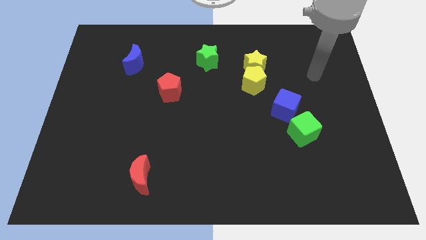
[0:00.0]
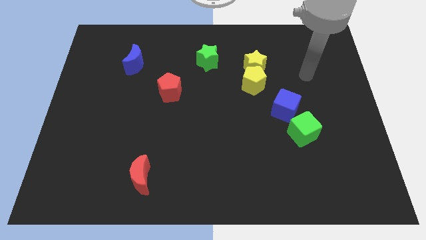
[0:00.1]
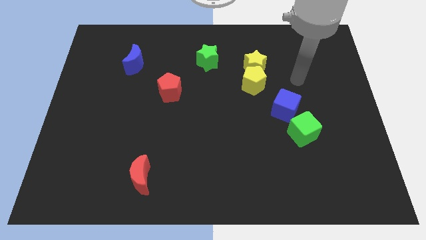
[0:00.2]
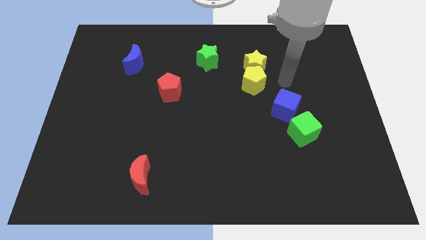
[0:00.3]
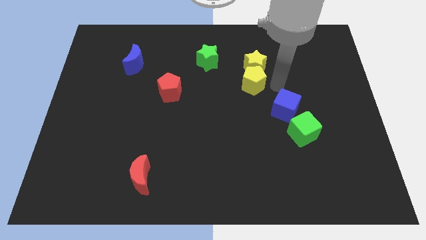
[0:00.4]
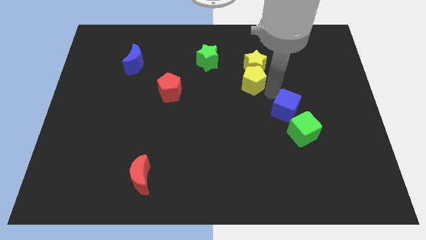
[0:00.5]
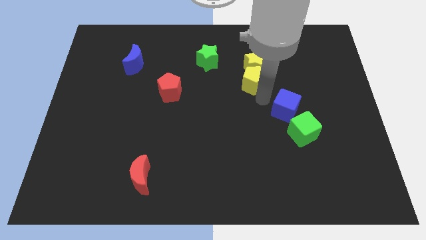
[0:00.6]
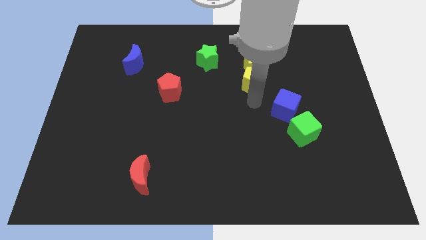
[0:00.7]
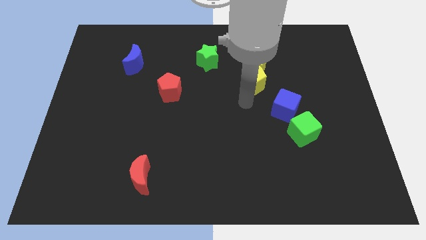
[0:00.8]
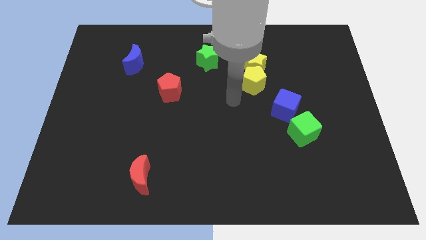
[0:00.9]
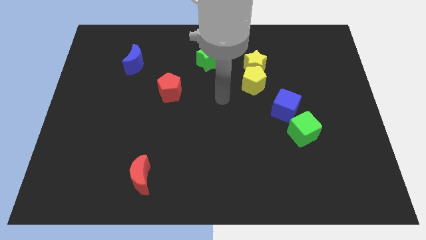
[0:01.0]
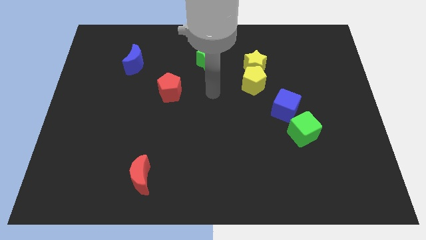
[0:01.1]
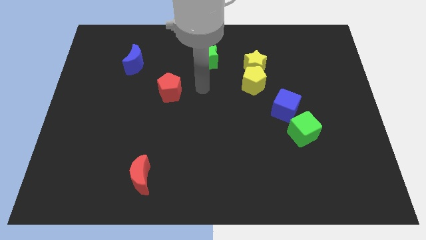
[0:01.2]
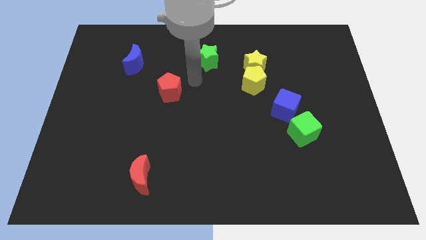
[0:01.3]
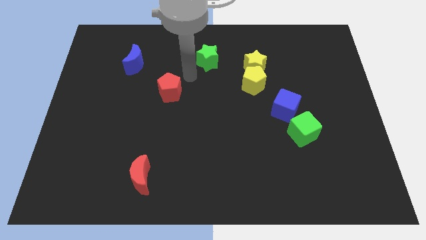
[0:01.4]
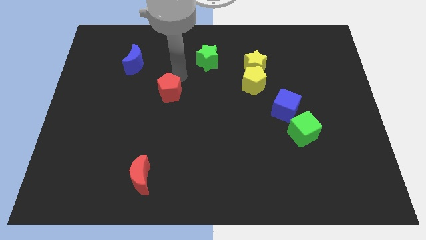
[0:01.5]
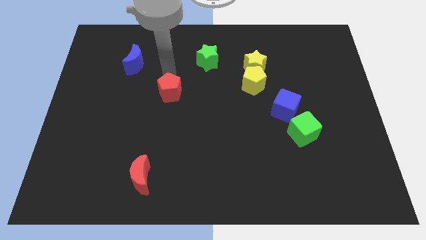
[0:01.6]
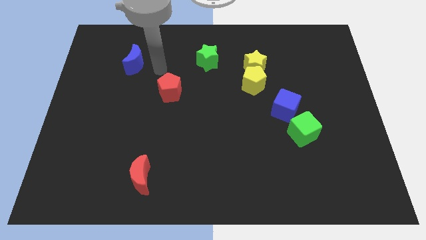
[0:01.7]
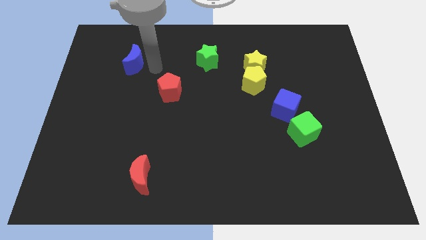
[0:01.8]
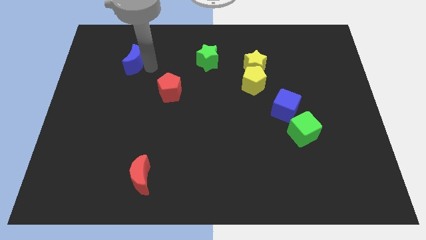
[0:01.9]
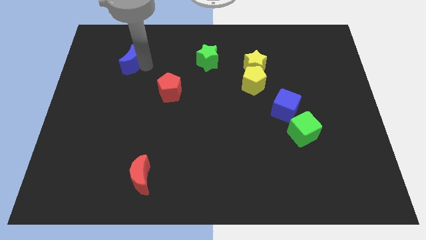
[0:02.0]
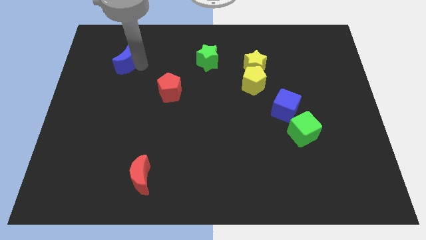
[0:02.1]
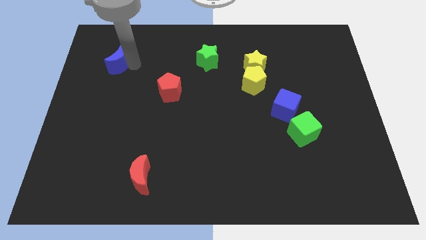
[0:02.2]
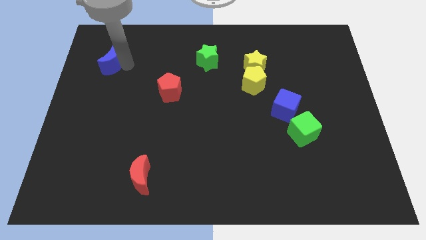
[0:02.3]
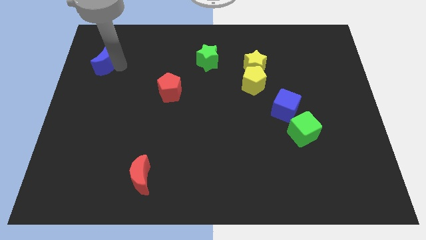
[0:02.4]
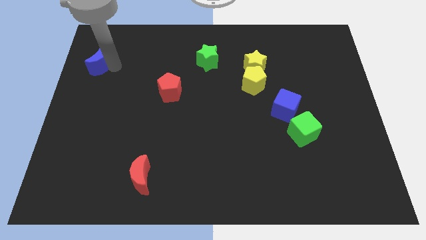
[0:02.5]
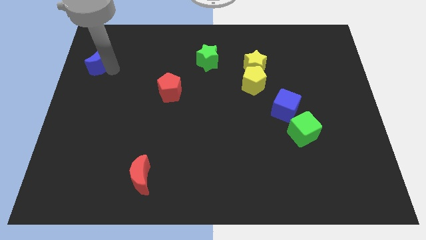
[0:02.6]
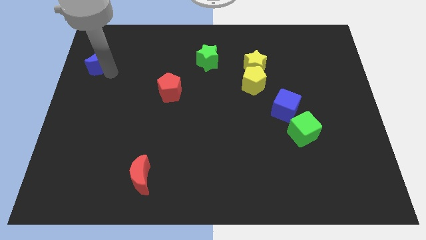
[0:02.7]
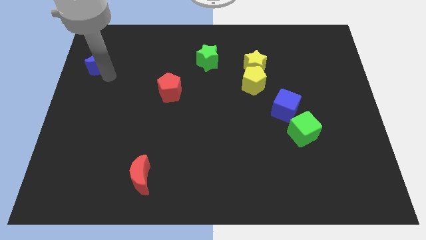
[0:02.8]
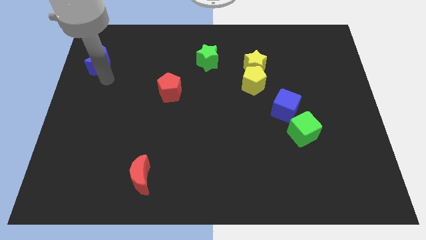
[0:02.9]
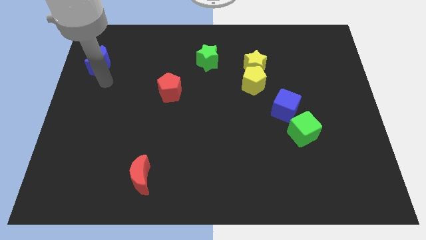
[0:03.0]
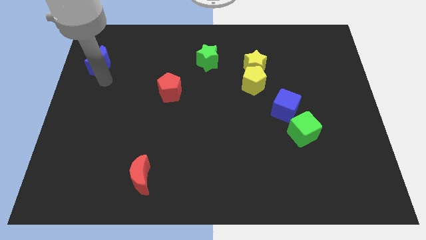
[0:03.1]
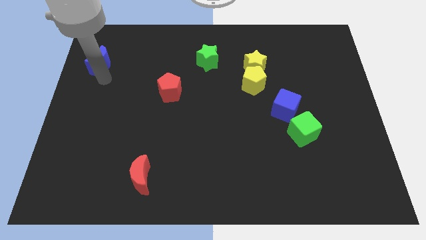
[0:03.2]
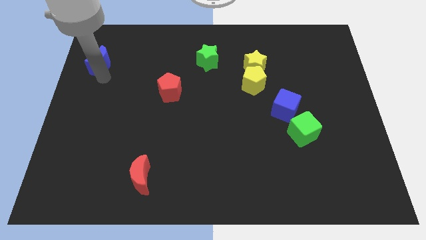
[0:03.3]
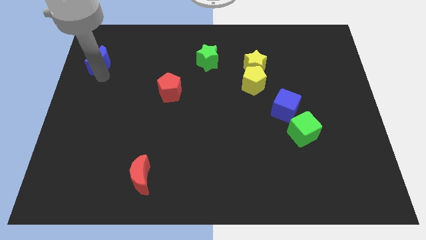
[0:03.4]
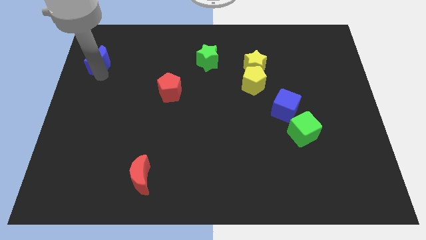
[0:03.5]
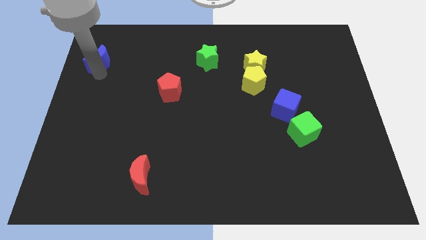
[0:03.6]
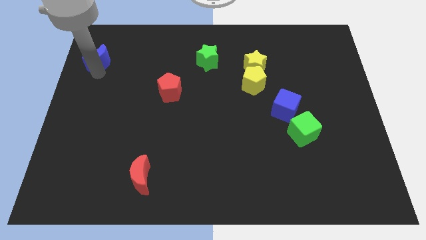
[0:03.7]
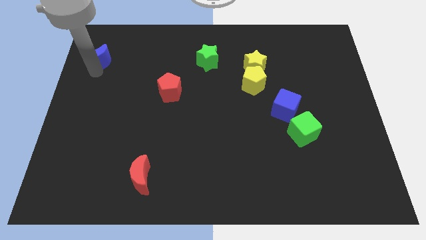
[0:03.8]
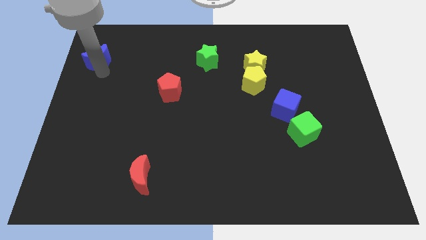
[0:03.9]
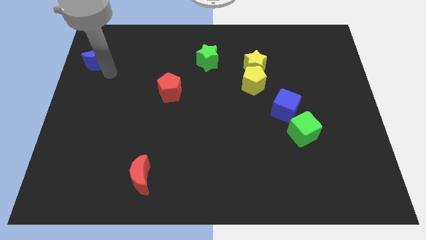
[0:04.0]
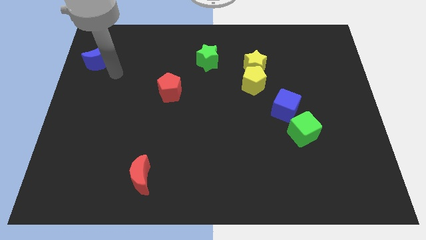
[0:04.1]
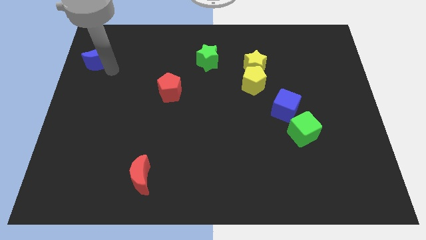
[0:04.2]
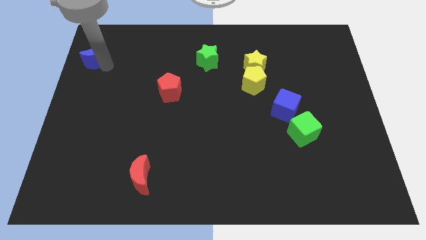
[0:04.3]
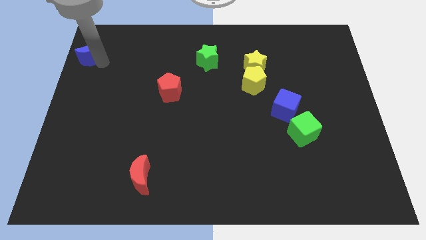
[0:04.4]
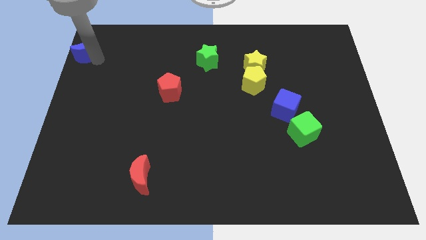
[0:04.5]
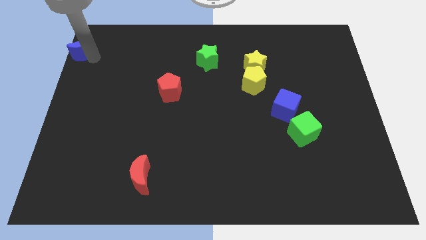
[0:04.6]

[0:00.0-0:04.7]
put the blue moon to the upper left corner
